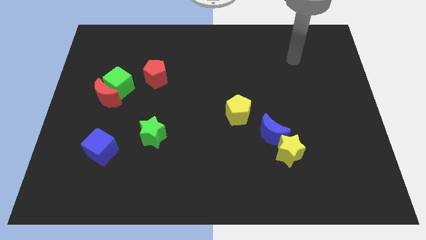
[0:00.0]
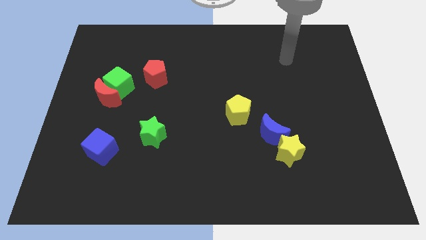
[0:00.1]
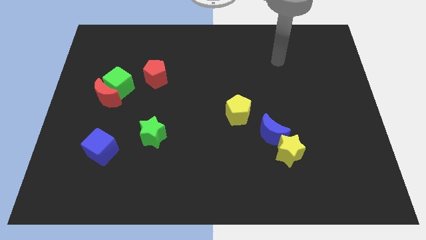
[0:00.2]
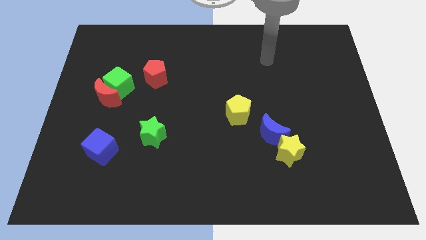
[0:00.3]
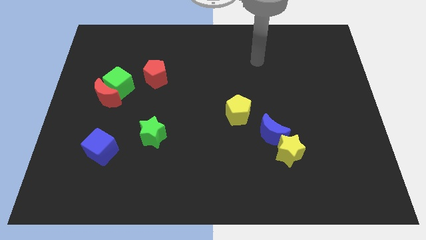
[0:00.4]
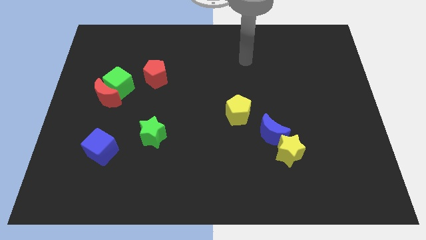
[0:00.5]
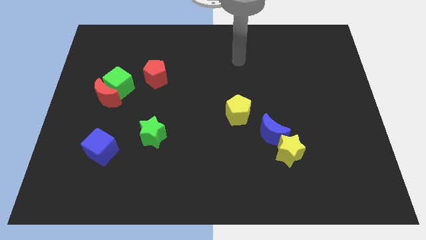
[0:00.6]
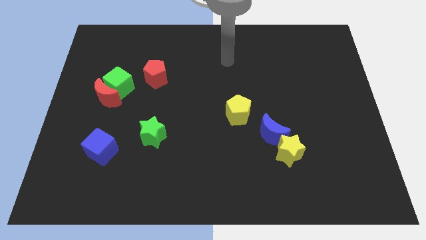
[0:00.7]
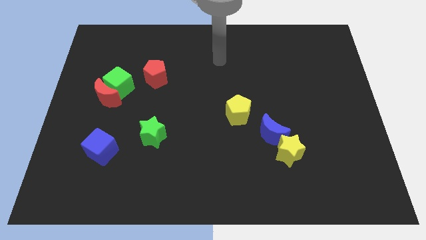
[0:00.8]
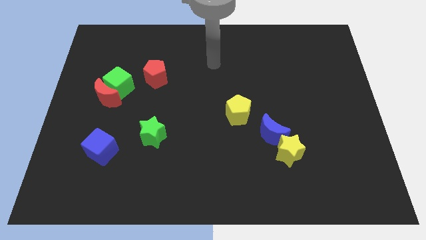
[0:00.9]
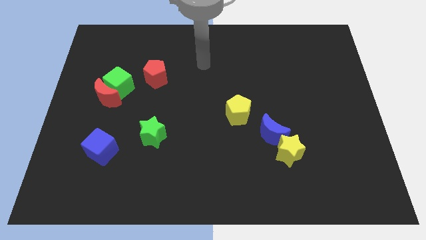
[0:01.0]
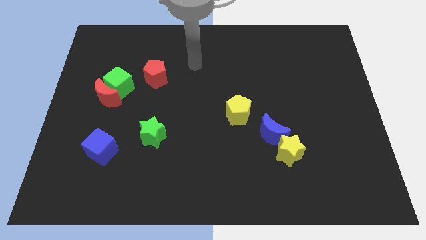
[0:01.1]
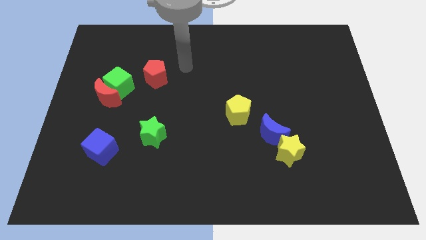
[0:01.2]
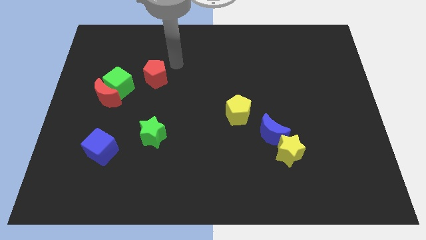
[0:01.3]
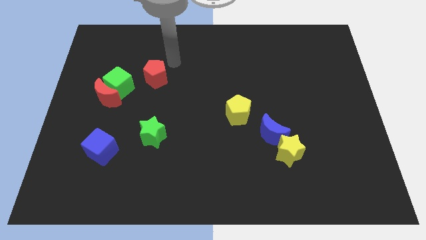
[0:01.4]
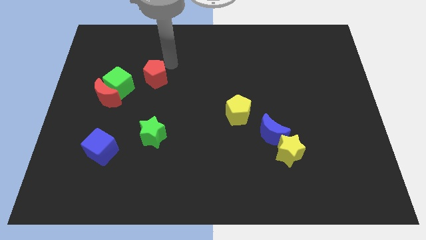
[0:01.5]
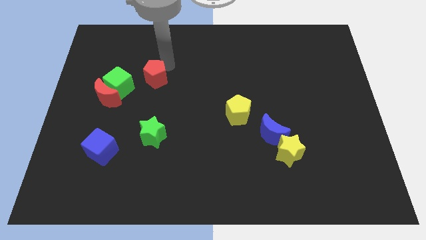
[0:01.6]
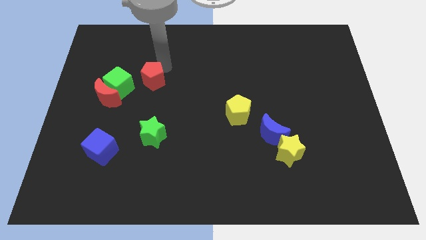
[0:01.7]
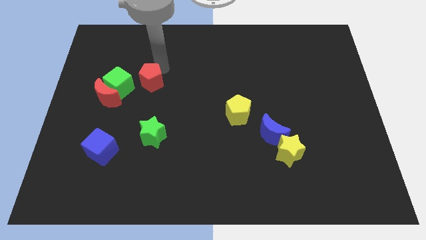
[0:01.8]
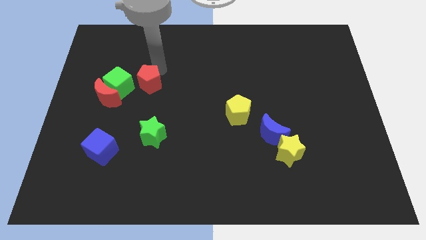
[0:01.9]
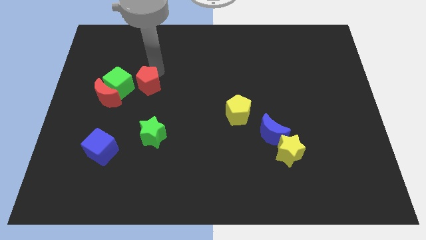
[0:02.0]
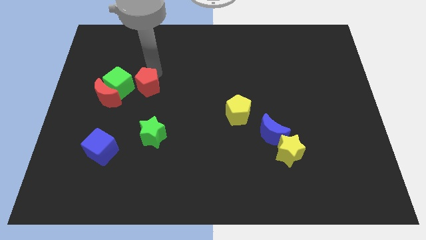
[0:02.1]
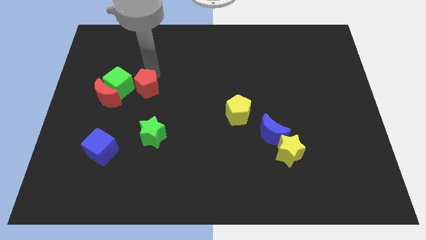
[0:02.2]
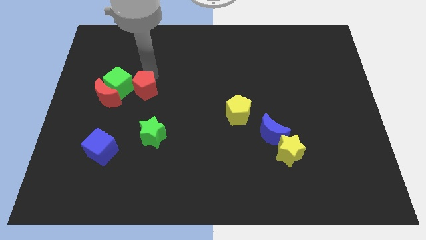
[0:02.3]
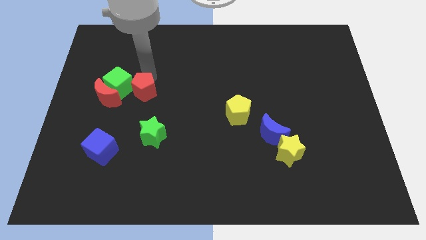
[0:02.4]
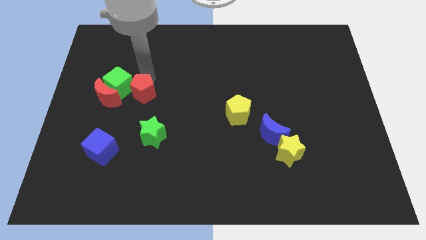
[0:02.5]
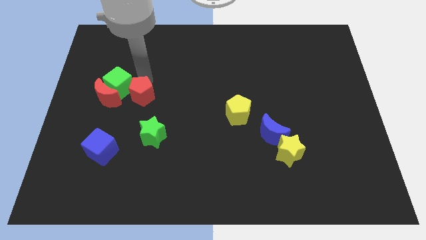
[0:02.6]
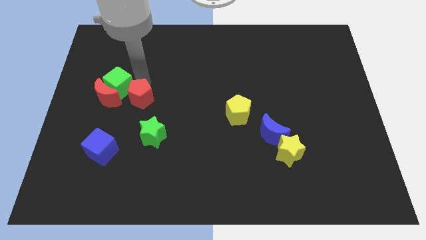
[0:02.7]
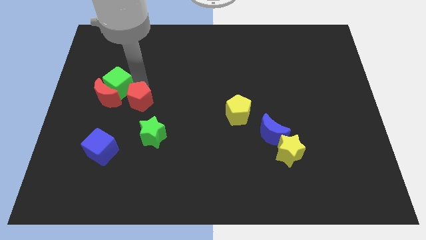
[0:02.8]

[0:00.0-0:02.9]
slide the red pentagon a little bit downwards and then to the left

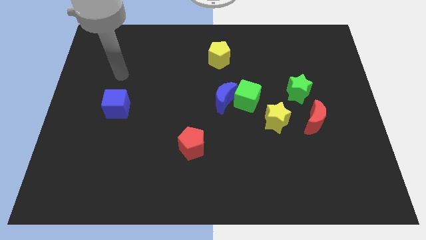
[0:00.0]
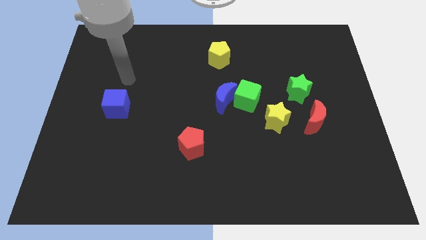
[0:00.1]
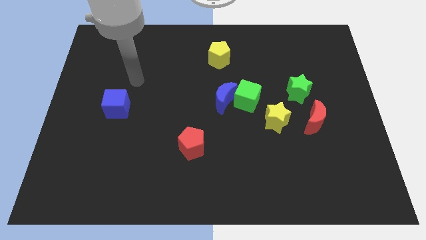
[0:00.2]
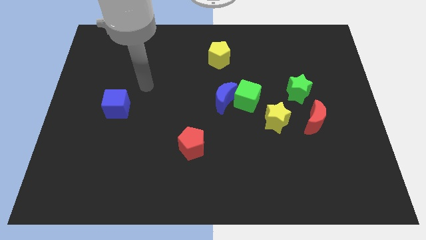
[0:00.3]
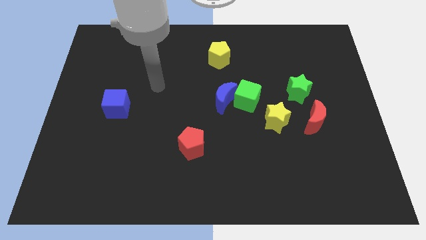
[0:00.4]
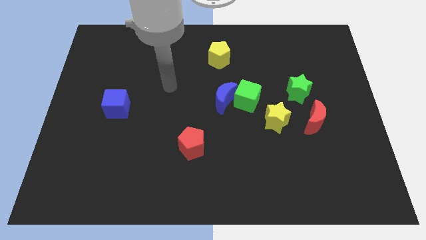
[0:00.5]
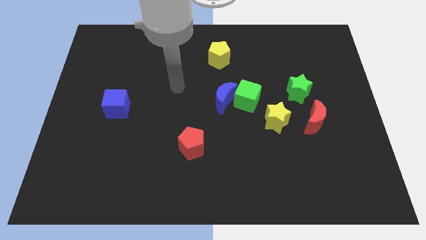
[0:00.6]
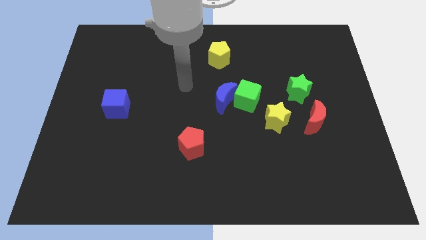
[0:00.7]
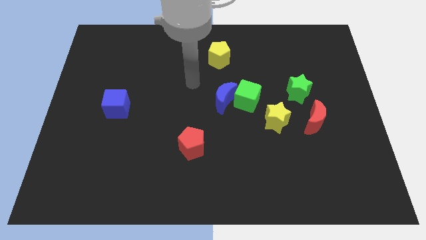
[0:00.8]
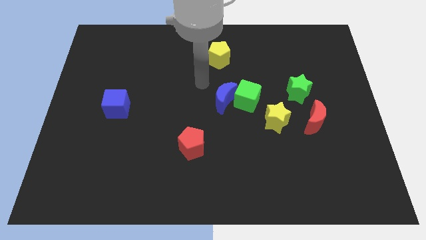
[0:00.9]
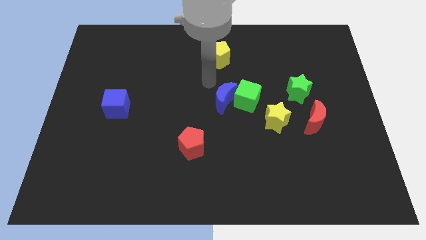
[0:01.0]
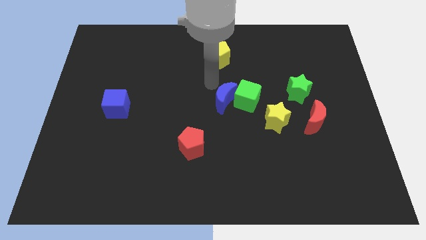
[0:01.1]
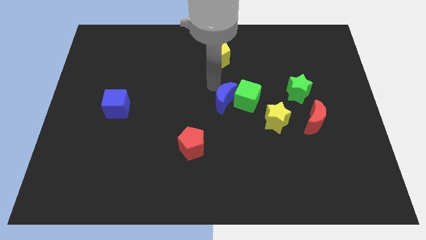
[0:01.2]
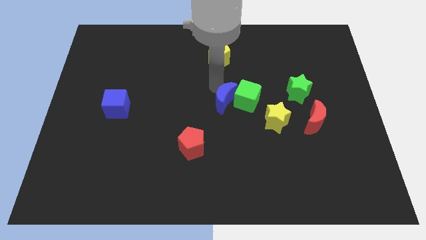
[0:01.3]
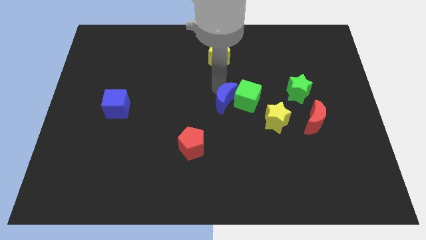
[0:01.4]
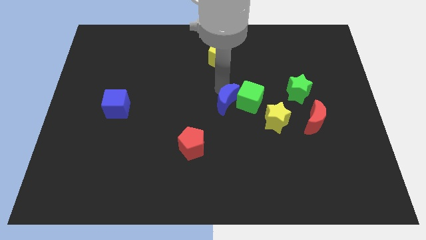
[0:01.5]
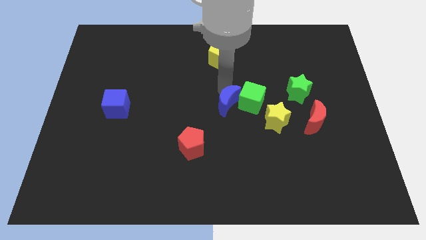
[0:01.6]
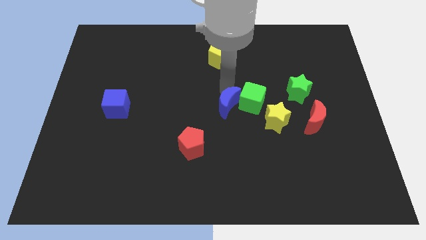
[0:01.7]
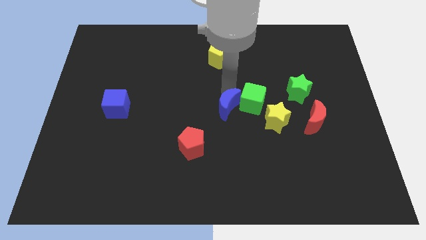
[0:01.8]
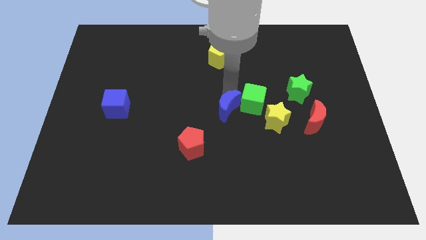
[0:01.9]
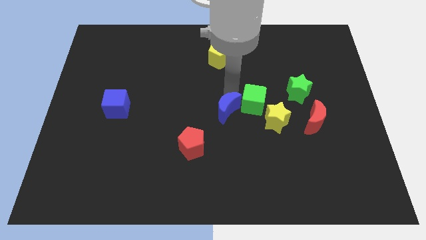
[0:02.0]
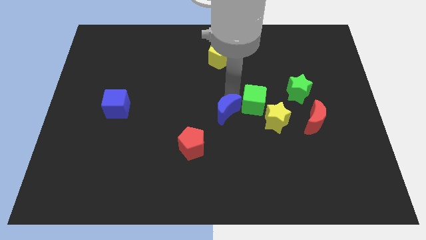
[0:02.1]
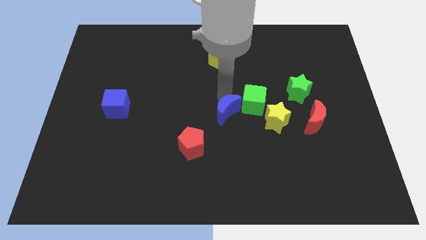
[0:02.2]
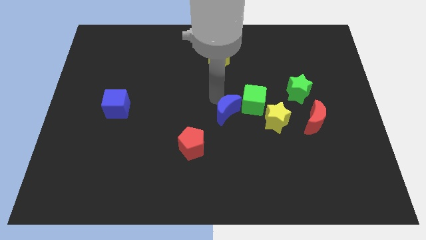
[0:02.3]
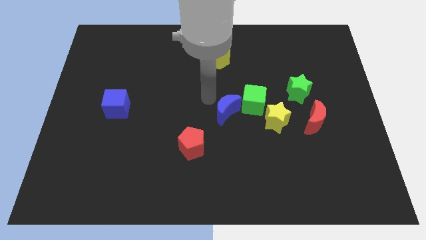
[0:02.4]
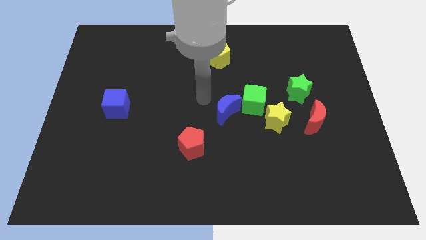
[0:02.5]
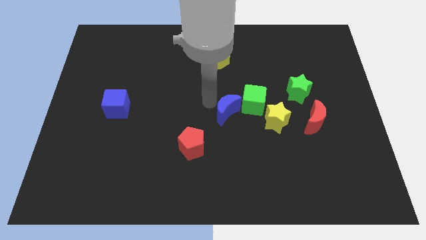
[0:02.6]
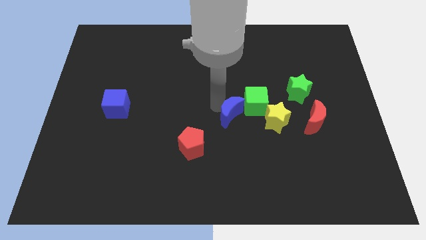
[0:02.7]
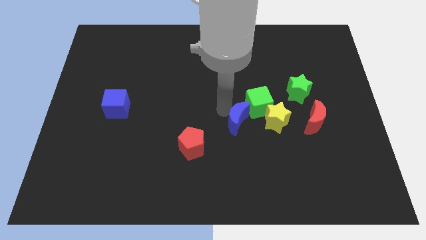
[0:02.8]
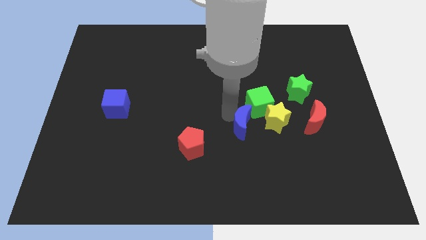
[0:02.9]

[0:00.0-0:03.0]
move the blue moon down and then to the right a little

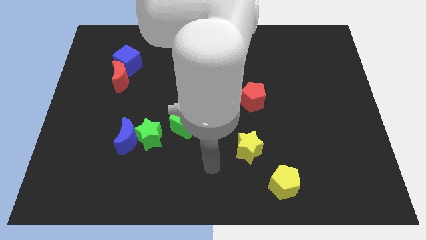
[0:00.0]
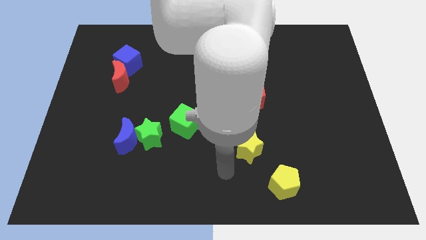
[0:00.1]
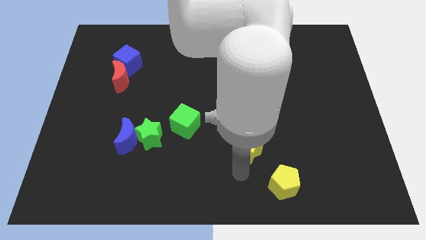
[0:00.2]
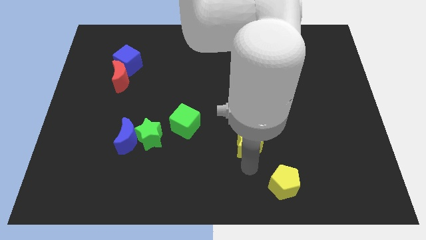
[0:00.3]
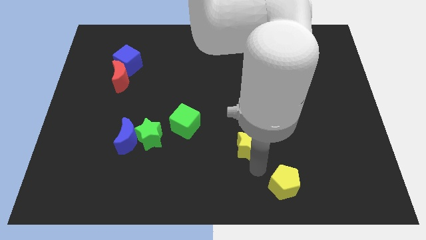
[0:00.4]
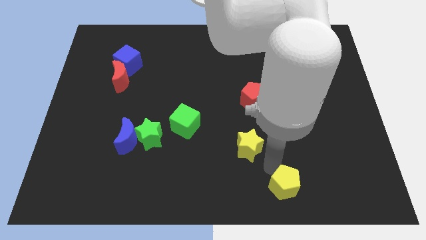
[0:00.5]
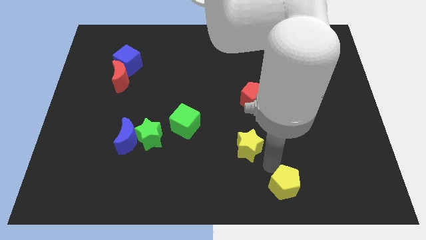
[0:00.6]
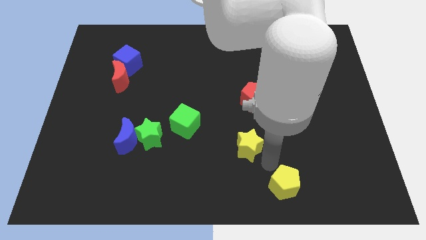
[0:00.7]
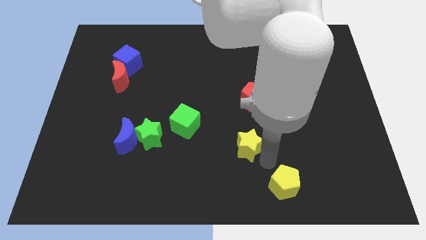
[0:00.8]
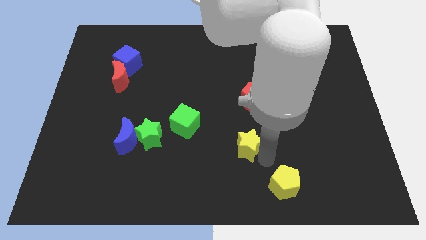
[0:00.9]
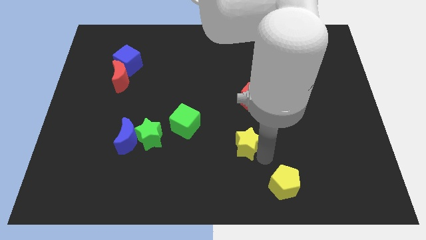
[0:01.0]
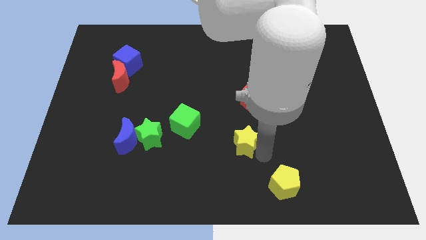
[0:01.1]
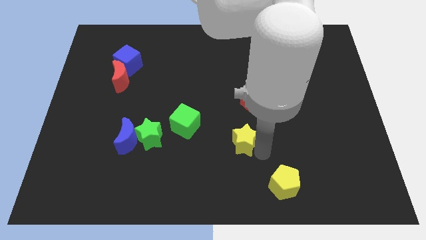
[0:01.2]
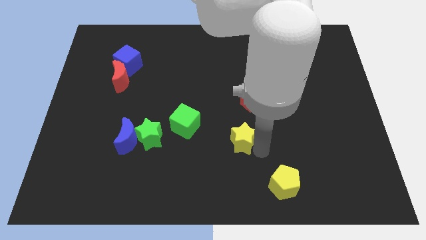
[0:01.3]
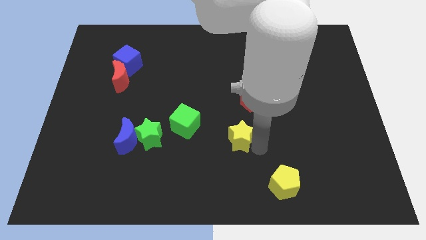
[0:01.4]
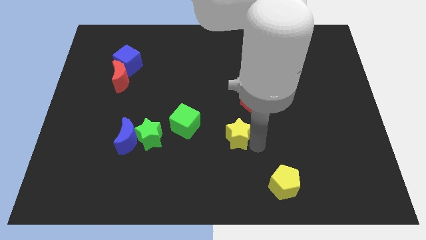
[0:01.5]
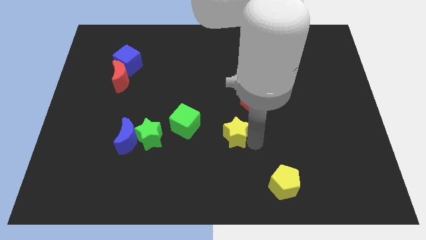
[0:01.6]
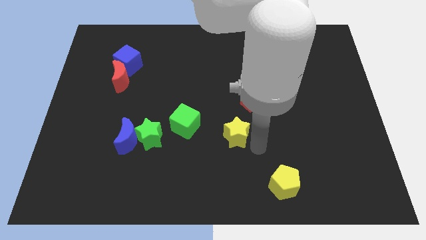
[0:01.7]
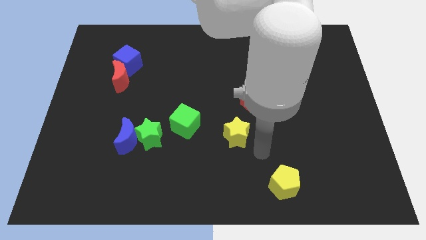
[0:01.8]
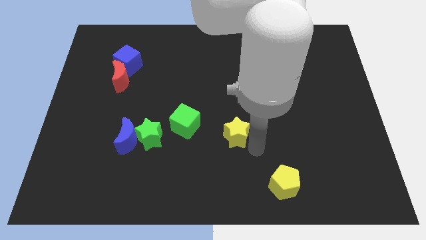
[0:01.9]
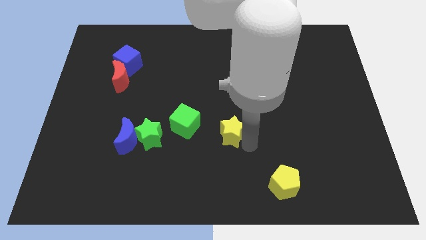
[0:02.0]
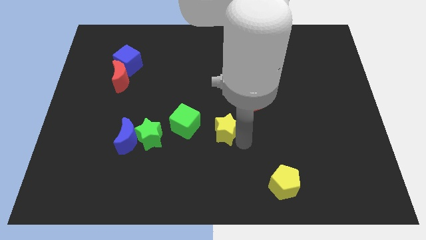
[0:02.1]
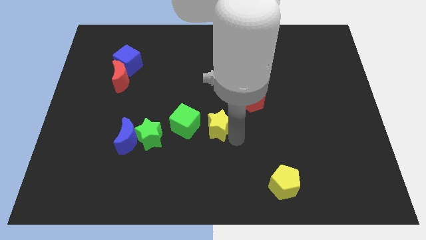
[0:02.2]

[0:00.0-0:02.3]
push the yellow star a little upwards and left diagonally
